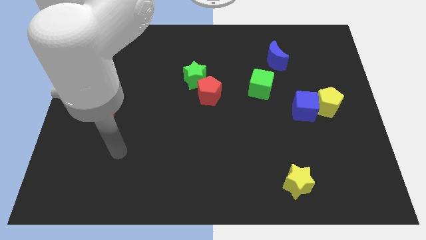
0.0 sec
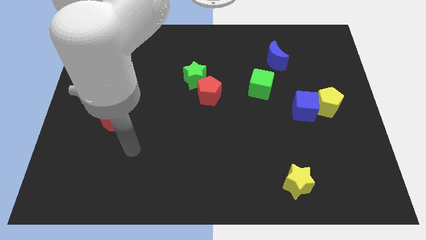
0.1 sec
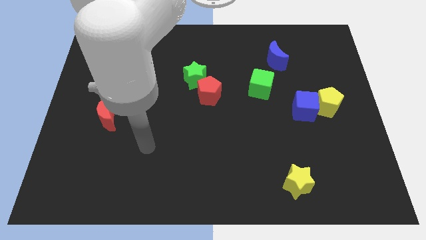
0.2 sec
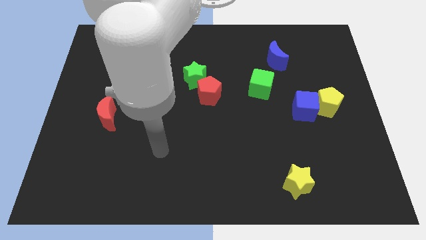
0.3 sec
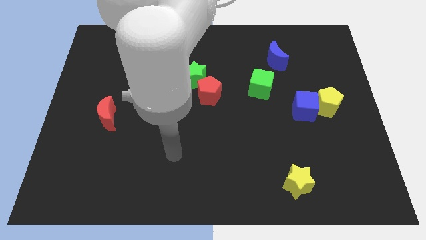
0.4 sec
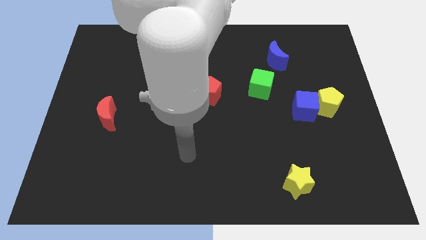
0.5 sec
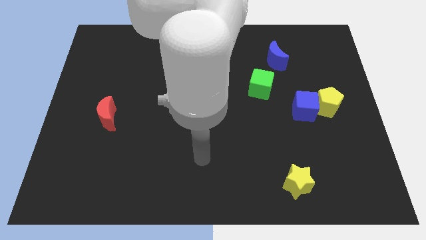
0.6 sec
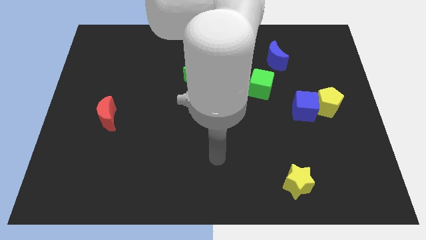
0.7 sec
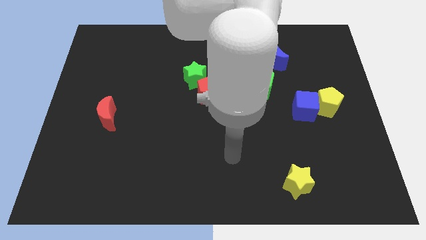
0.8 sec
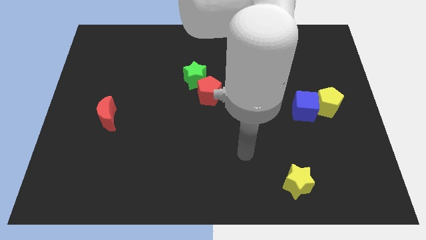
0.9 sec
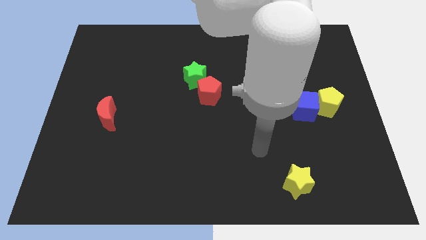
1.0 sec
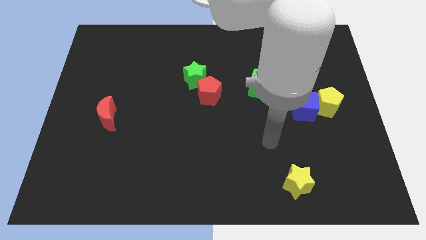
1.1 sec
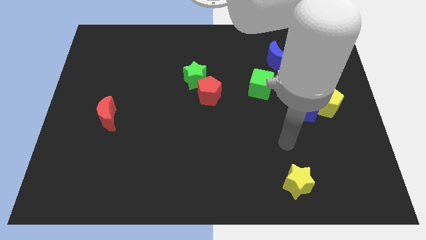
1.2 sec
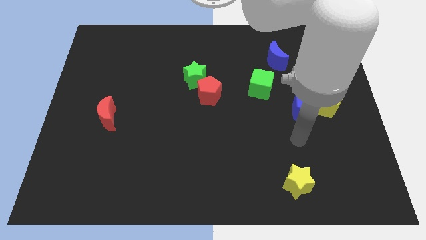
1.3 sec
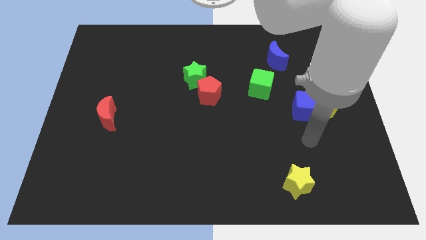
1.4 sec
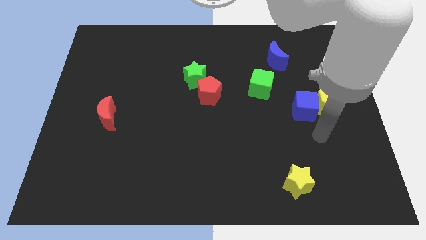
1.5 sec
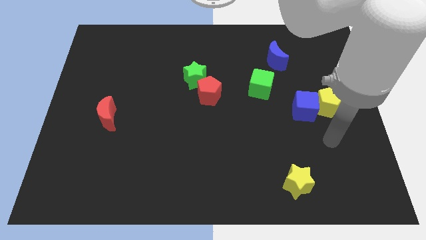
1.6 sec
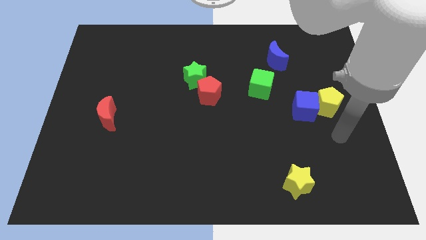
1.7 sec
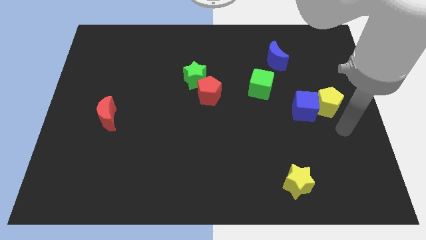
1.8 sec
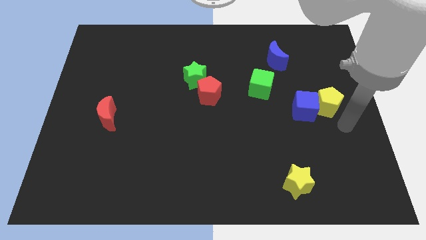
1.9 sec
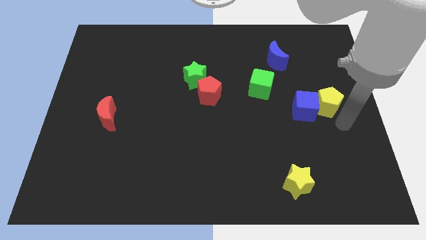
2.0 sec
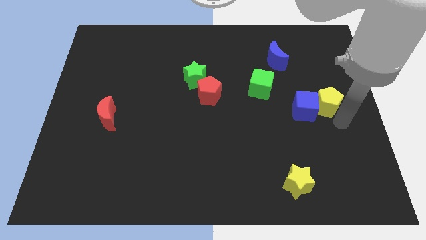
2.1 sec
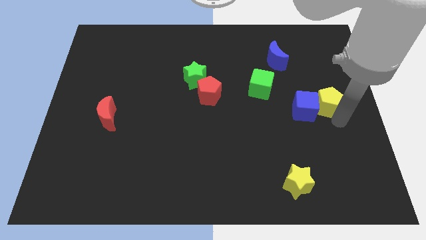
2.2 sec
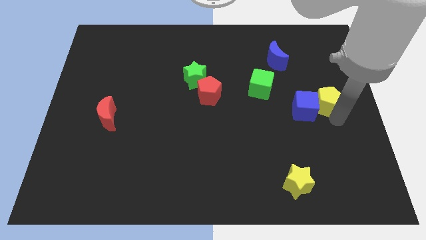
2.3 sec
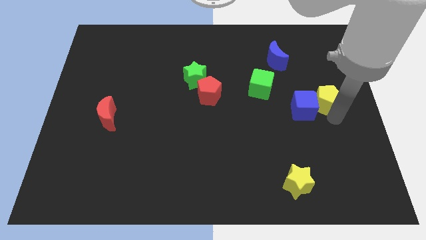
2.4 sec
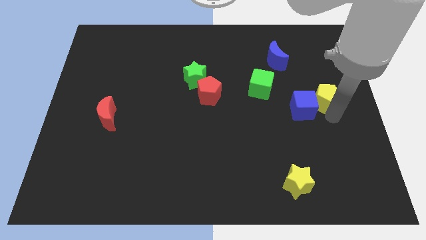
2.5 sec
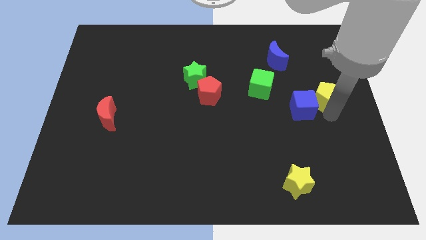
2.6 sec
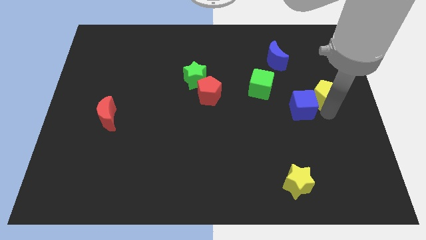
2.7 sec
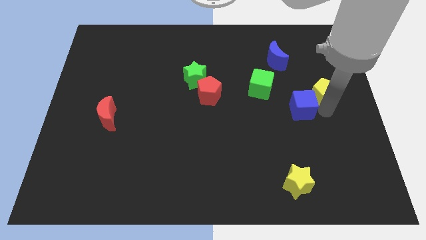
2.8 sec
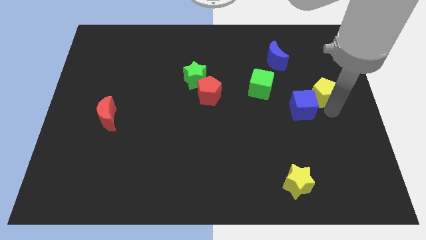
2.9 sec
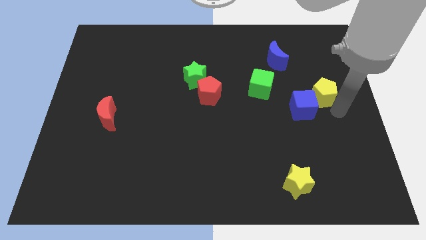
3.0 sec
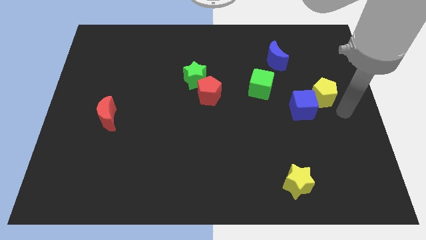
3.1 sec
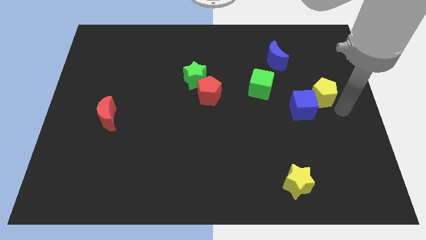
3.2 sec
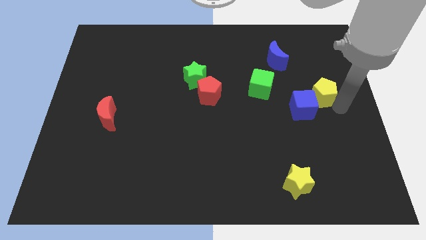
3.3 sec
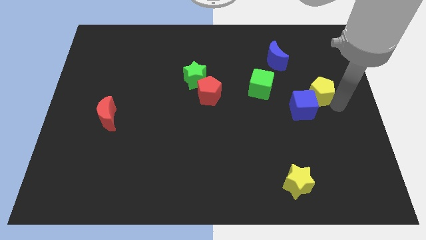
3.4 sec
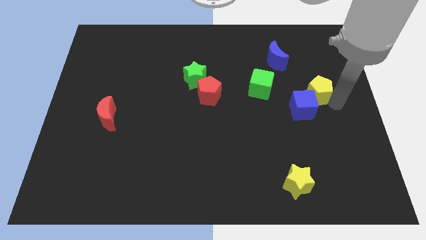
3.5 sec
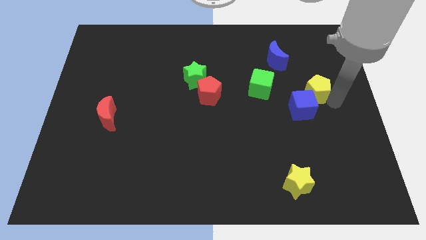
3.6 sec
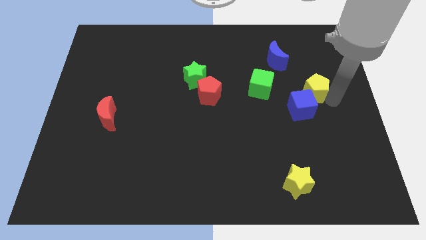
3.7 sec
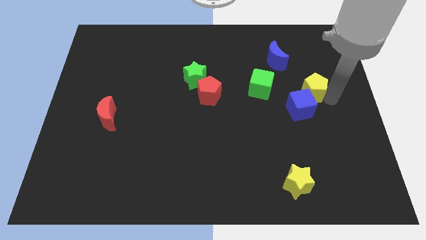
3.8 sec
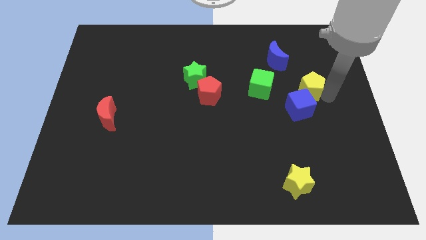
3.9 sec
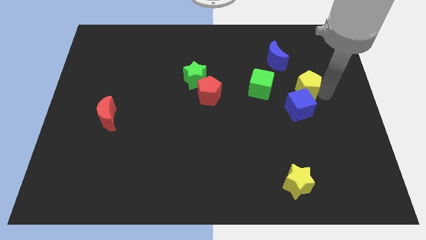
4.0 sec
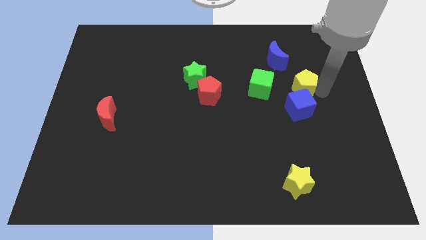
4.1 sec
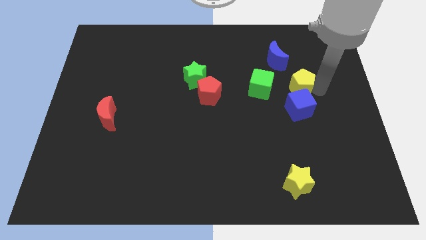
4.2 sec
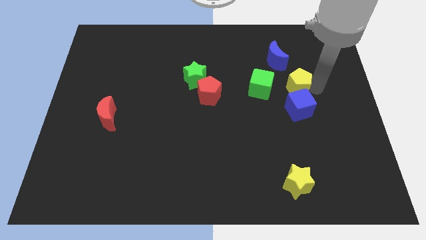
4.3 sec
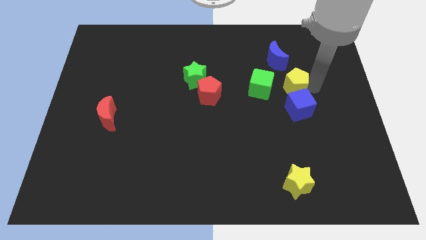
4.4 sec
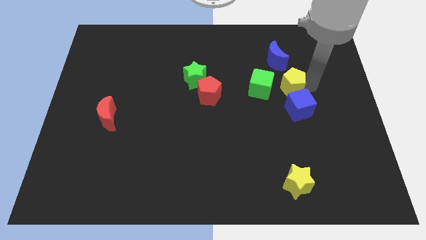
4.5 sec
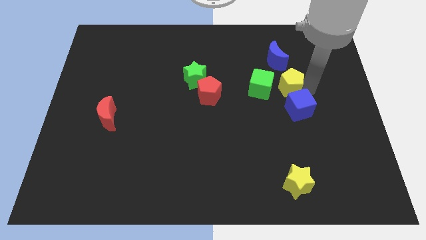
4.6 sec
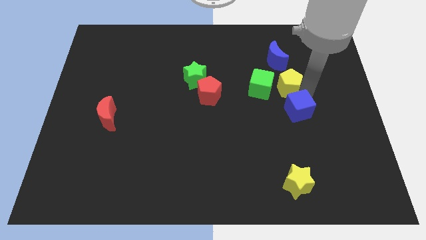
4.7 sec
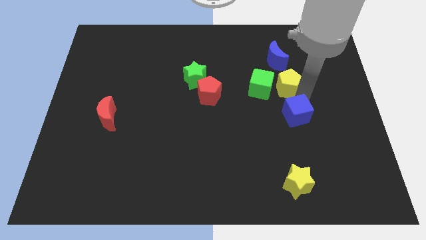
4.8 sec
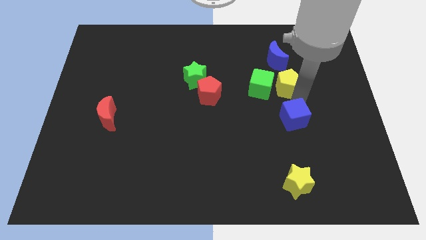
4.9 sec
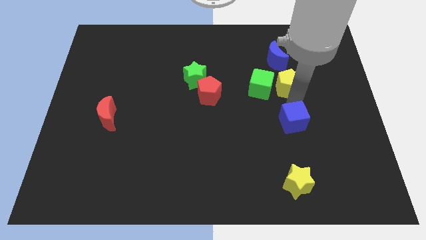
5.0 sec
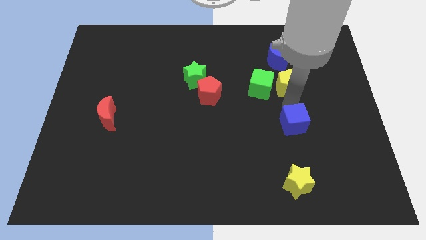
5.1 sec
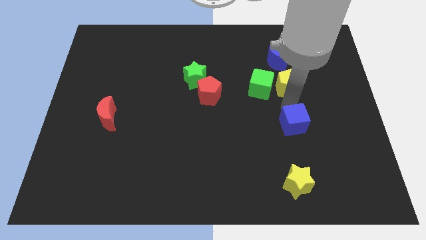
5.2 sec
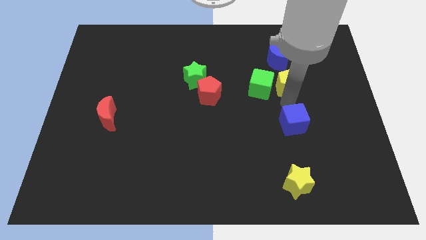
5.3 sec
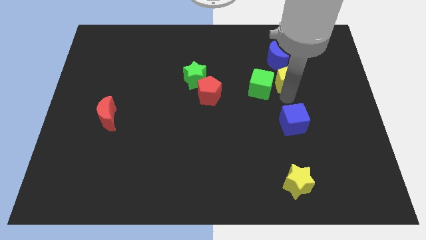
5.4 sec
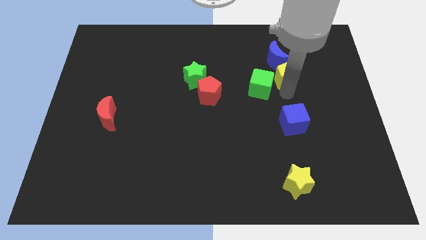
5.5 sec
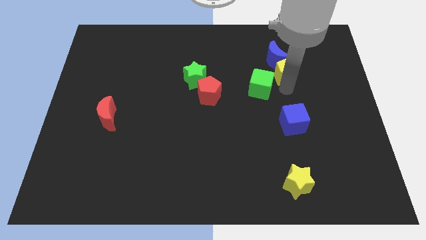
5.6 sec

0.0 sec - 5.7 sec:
move the yellow pentagon close to the blue moon

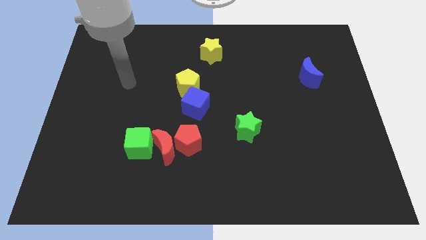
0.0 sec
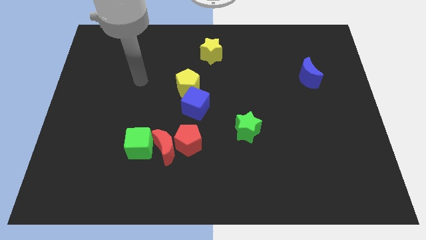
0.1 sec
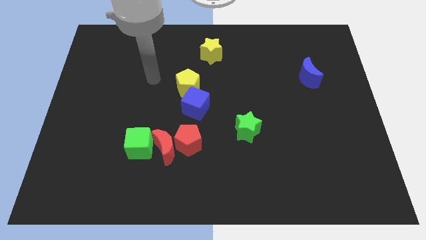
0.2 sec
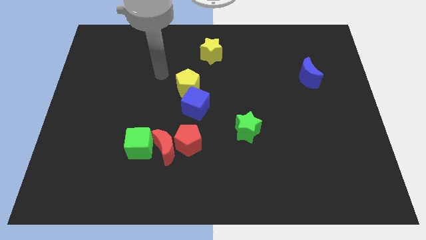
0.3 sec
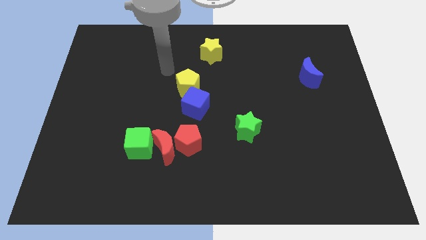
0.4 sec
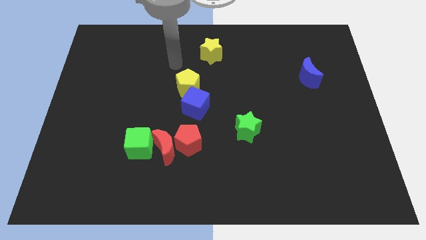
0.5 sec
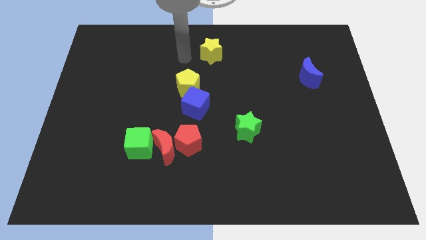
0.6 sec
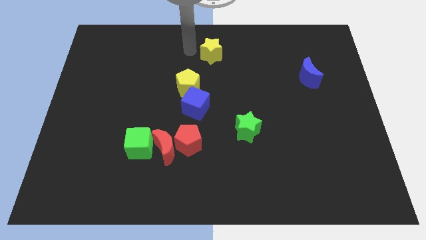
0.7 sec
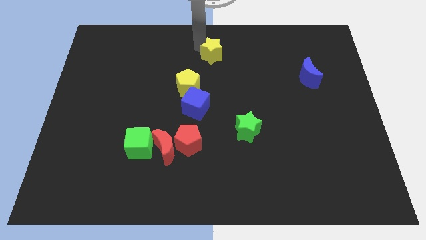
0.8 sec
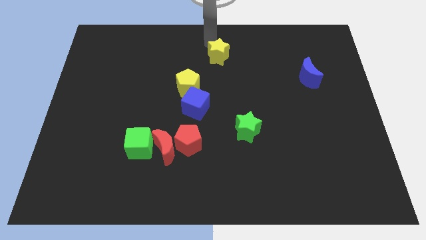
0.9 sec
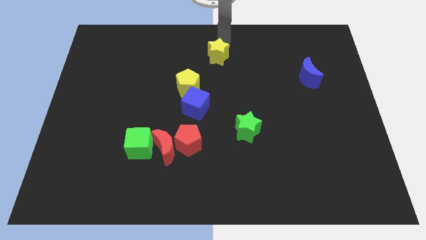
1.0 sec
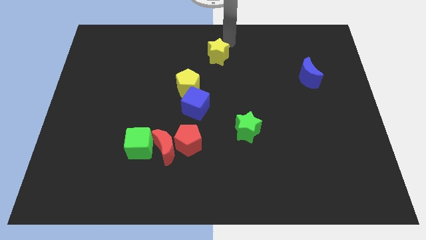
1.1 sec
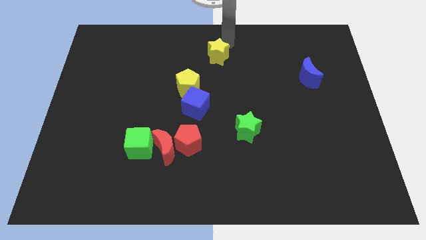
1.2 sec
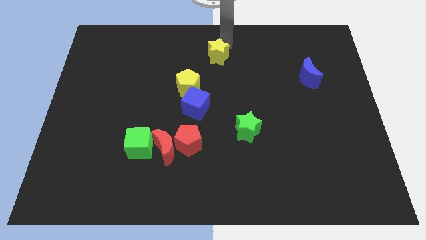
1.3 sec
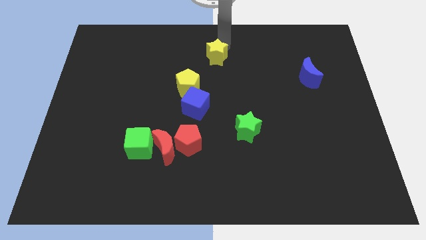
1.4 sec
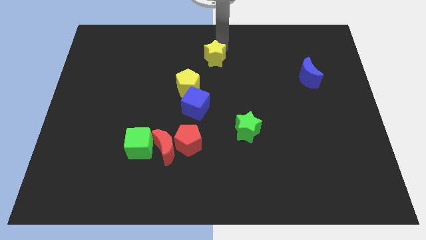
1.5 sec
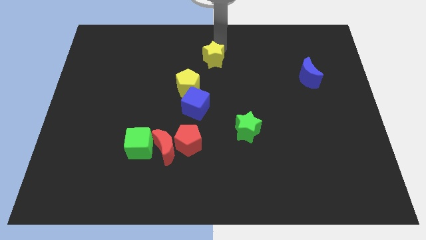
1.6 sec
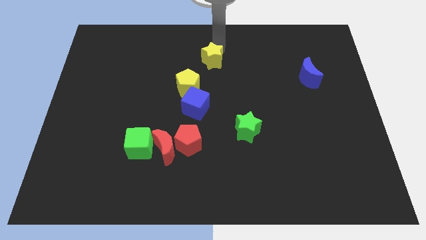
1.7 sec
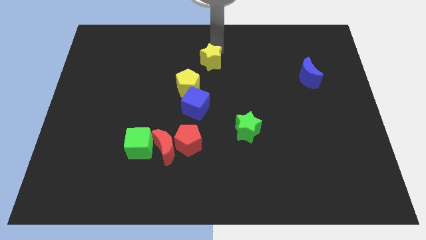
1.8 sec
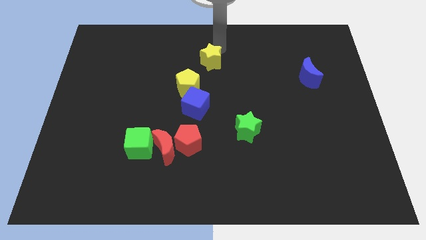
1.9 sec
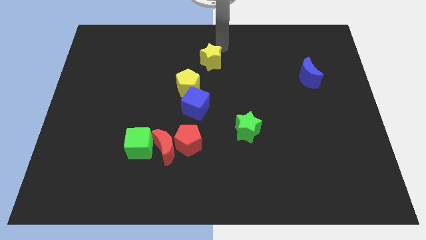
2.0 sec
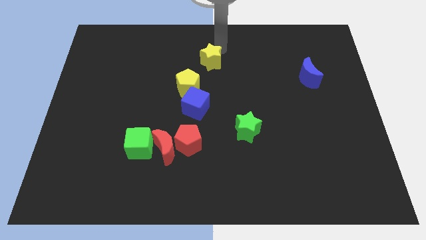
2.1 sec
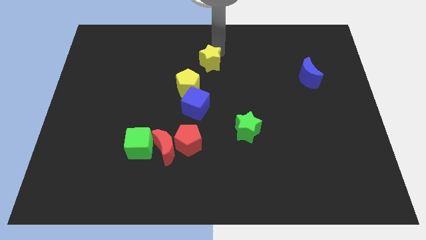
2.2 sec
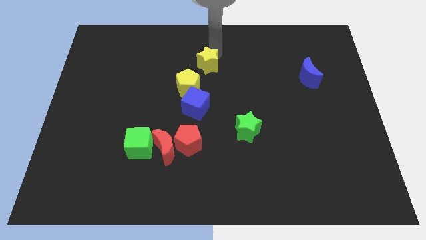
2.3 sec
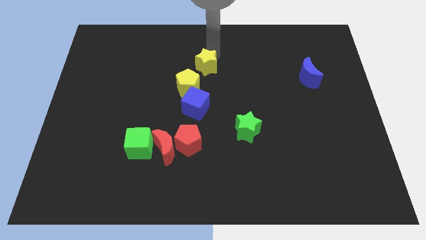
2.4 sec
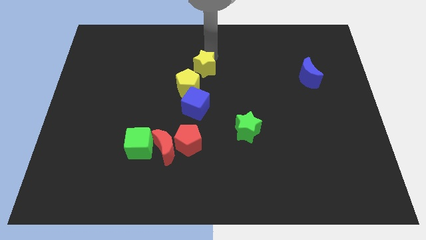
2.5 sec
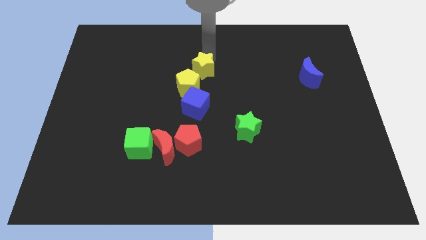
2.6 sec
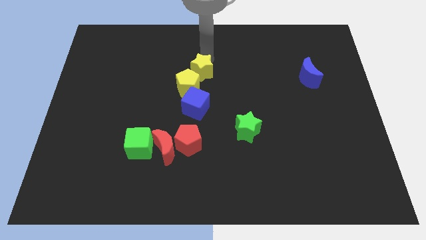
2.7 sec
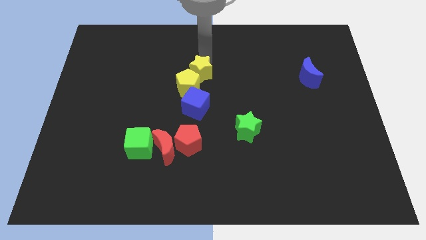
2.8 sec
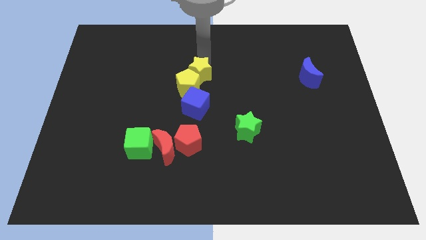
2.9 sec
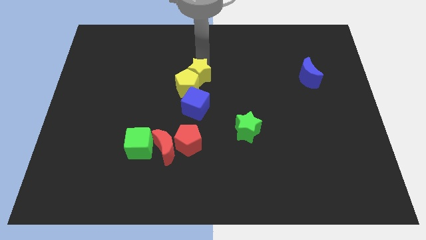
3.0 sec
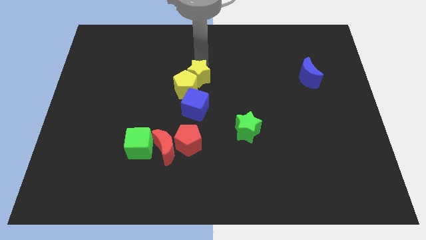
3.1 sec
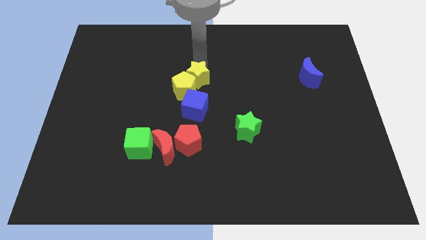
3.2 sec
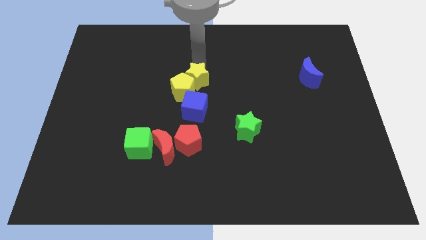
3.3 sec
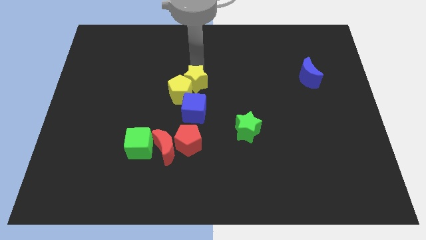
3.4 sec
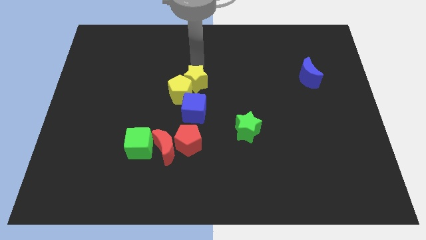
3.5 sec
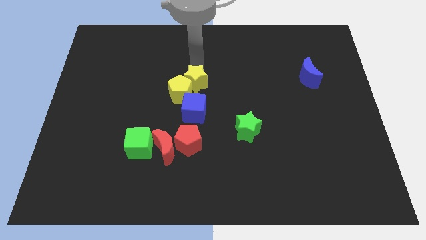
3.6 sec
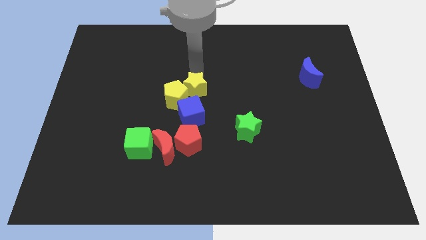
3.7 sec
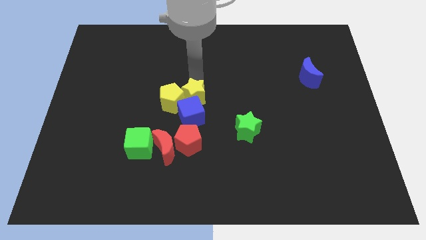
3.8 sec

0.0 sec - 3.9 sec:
move the yellow star to the blue cube
